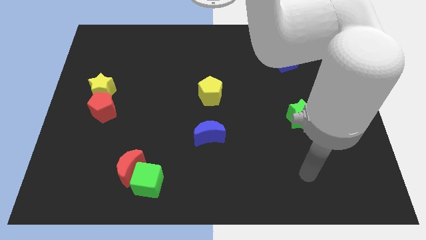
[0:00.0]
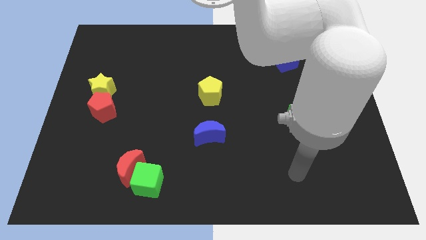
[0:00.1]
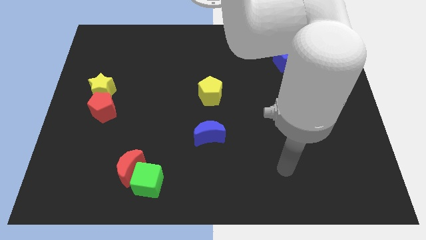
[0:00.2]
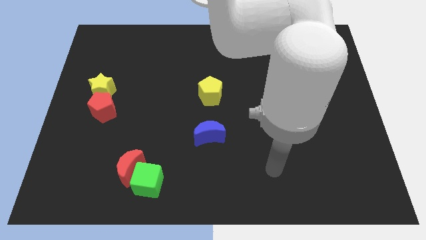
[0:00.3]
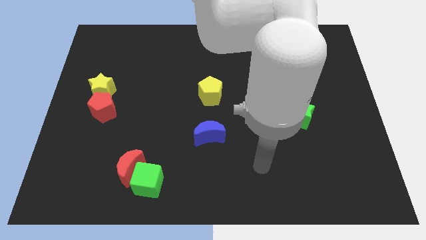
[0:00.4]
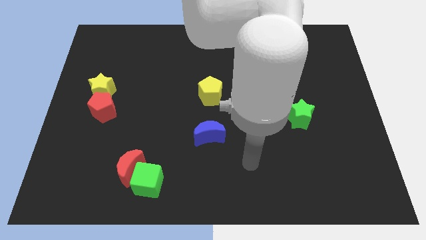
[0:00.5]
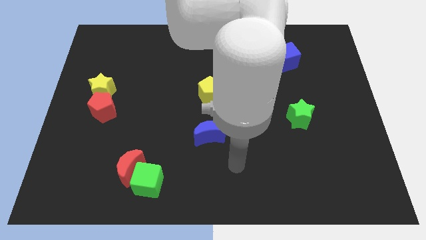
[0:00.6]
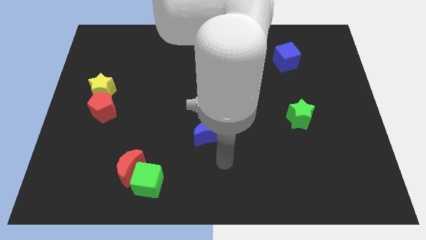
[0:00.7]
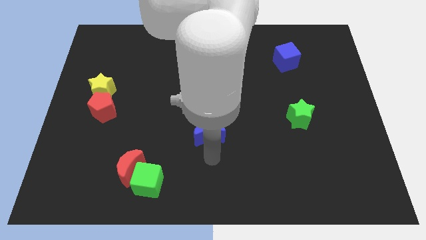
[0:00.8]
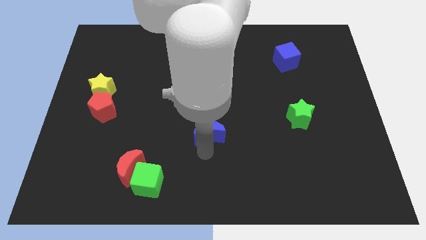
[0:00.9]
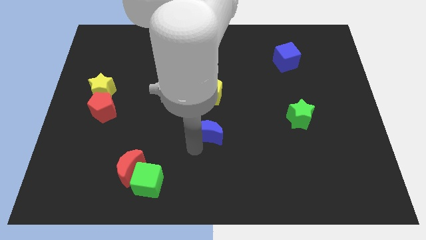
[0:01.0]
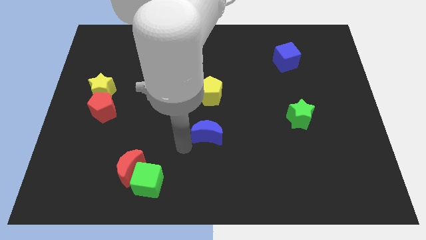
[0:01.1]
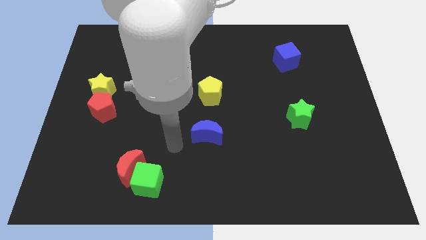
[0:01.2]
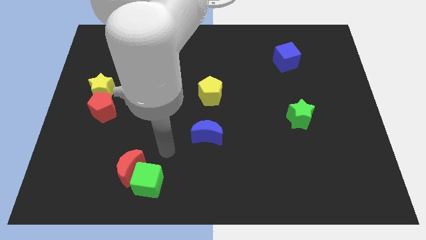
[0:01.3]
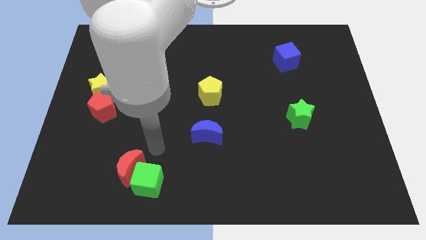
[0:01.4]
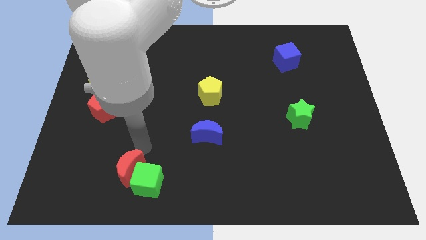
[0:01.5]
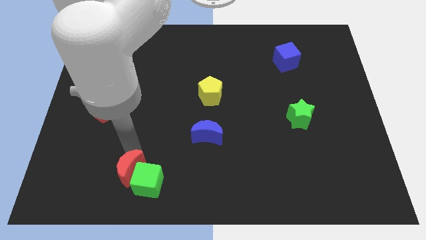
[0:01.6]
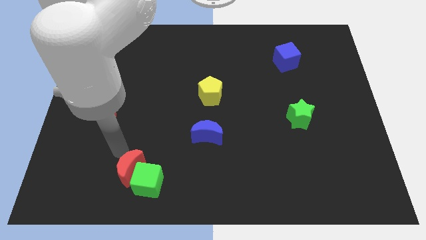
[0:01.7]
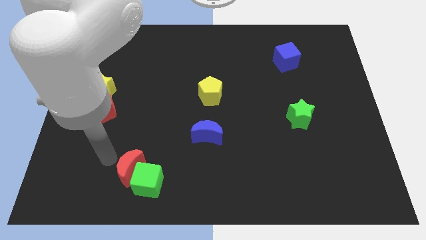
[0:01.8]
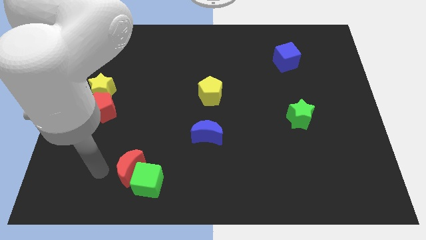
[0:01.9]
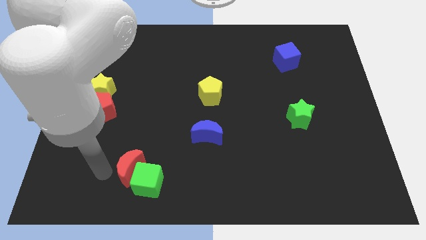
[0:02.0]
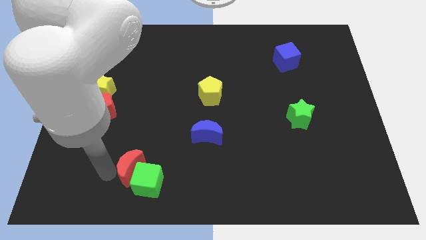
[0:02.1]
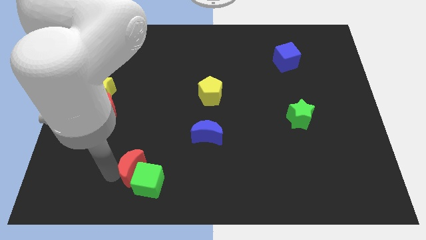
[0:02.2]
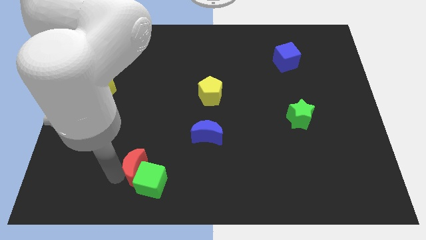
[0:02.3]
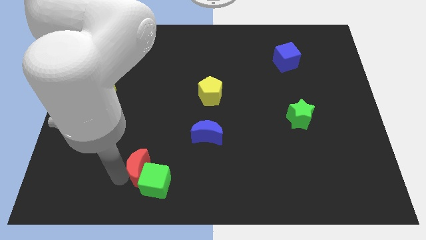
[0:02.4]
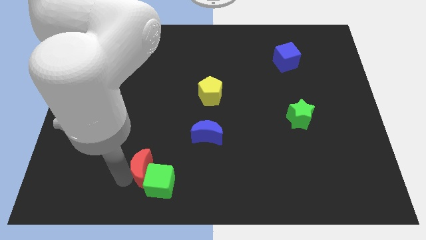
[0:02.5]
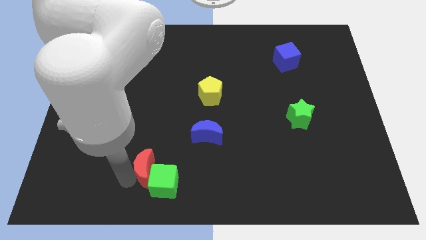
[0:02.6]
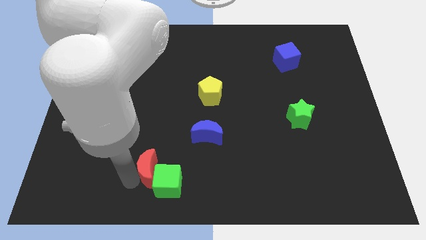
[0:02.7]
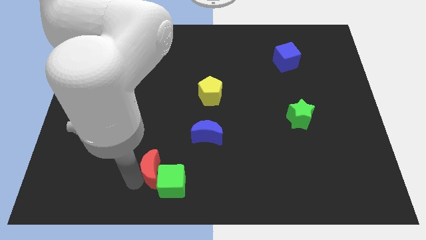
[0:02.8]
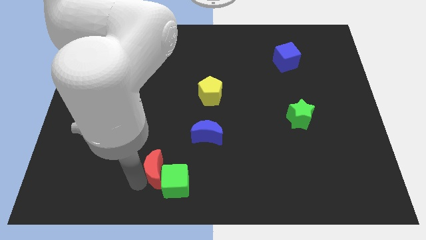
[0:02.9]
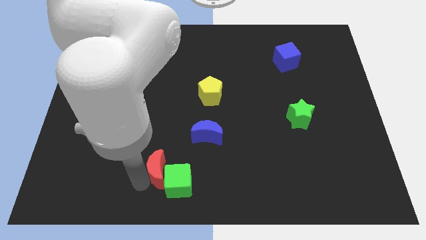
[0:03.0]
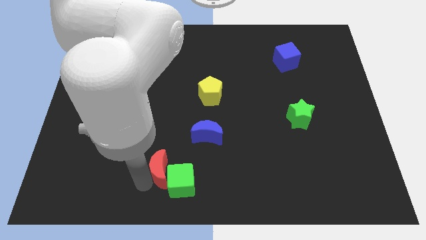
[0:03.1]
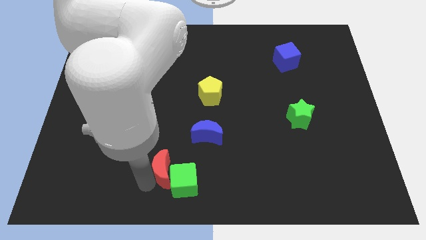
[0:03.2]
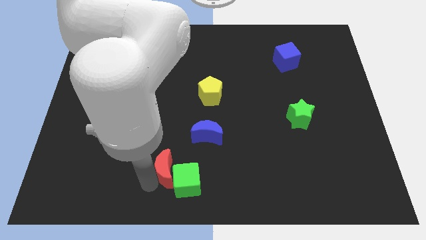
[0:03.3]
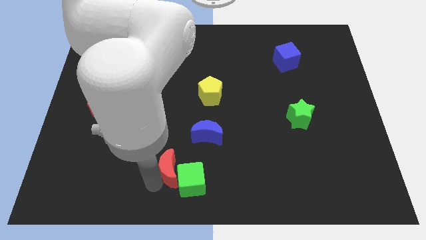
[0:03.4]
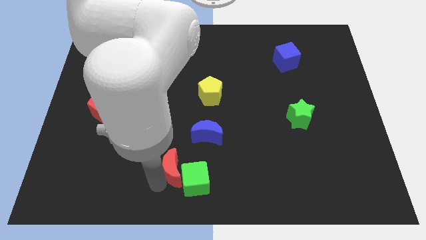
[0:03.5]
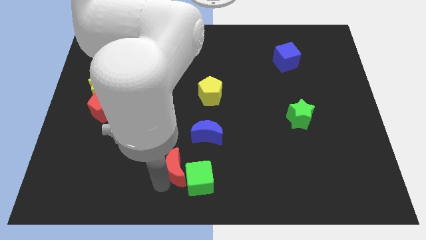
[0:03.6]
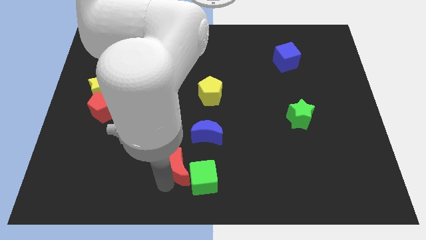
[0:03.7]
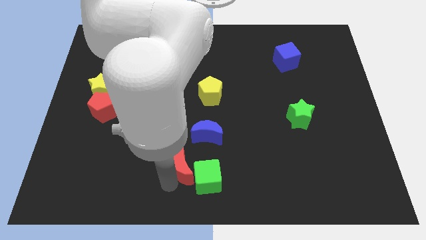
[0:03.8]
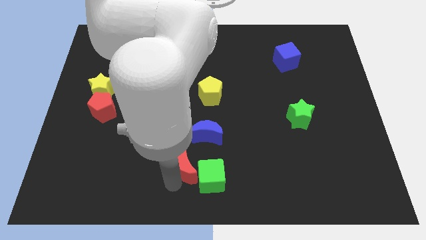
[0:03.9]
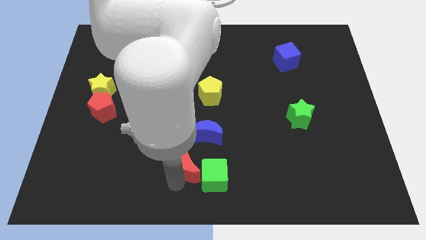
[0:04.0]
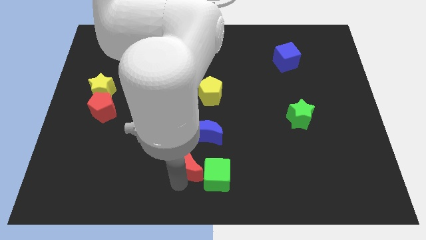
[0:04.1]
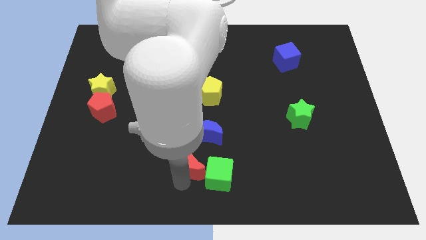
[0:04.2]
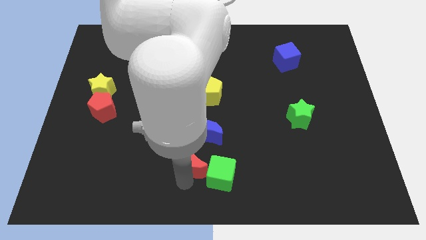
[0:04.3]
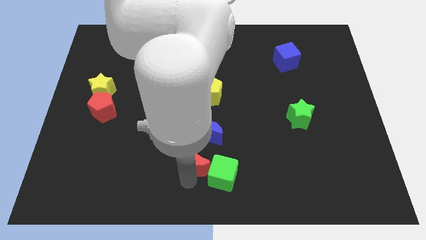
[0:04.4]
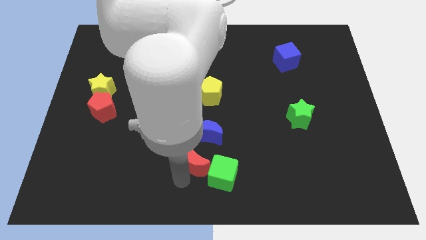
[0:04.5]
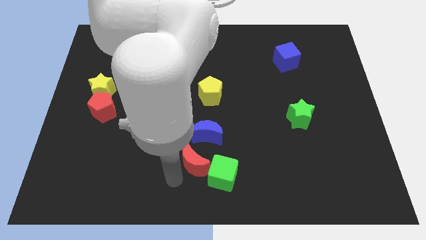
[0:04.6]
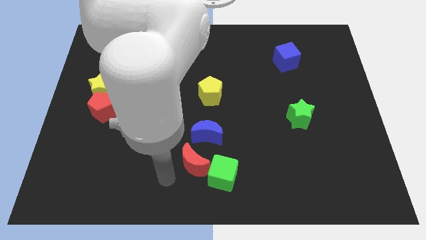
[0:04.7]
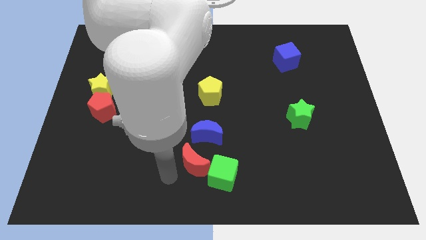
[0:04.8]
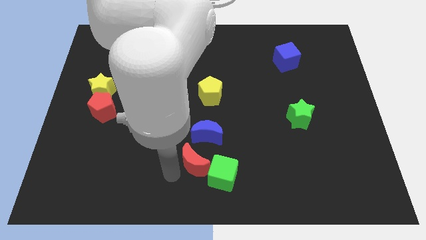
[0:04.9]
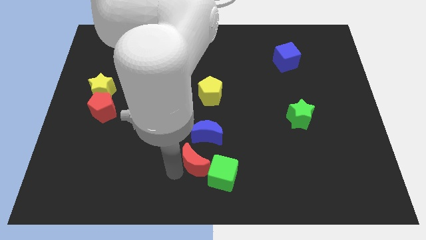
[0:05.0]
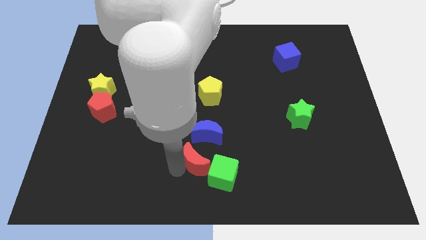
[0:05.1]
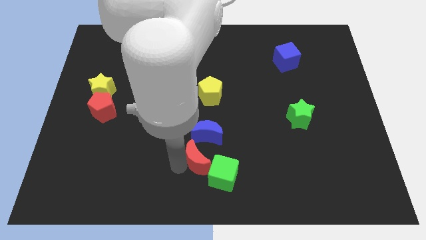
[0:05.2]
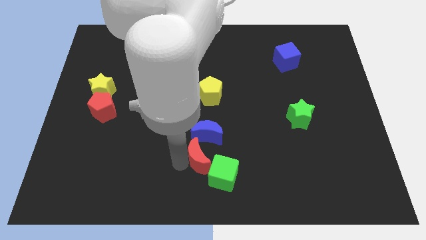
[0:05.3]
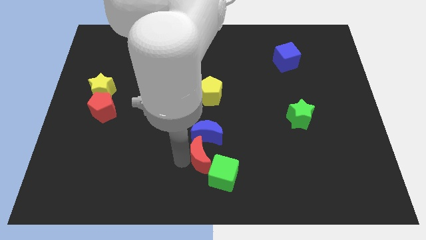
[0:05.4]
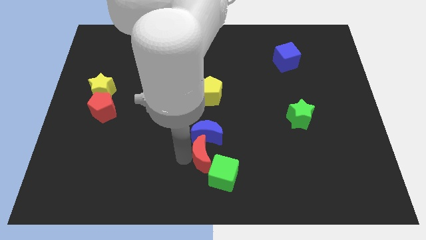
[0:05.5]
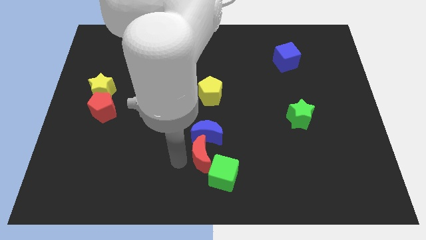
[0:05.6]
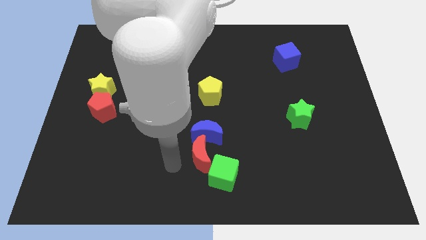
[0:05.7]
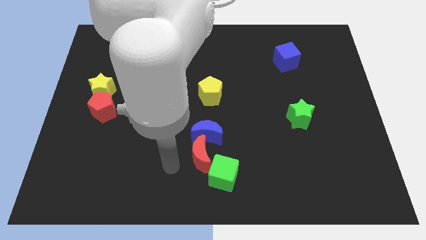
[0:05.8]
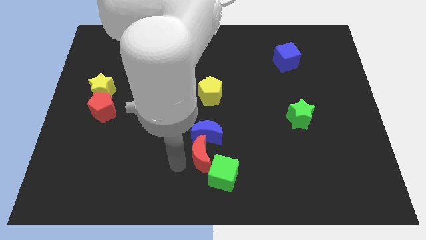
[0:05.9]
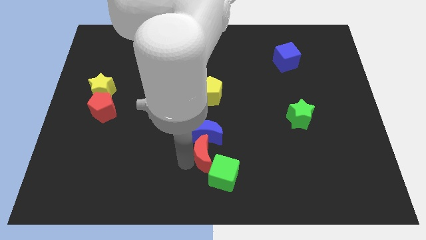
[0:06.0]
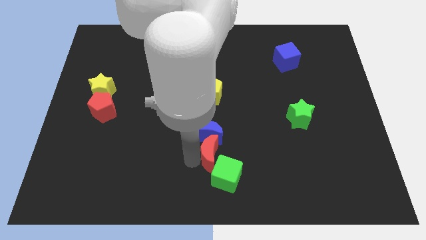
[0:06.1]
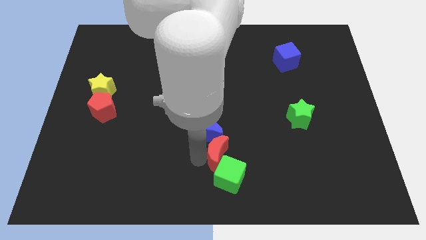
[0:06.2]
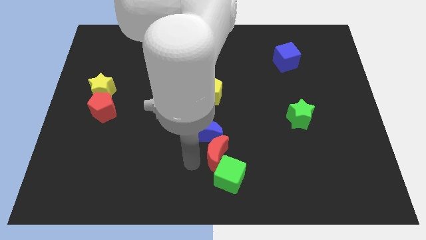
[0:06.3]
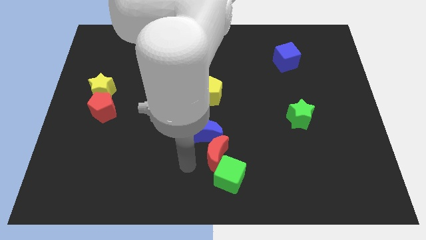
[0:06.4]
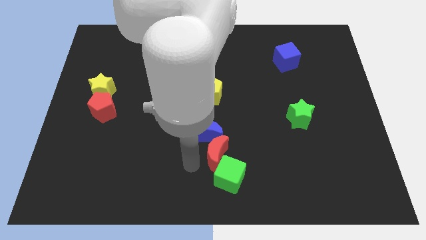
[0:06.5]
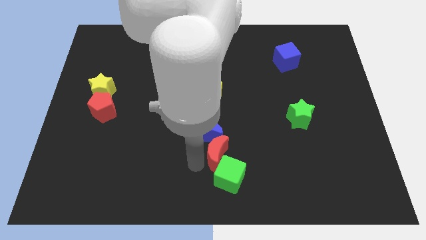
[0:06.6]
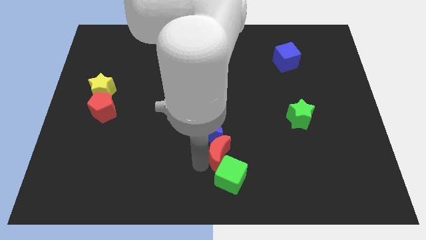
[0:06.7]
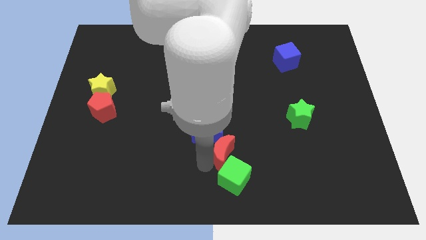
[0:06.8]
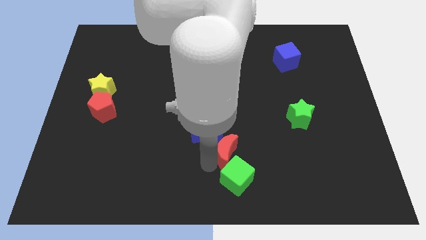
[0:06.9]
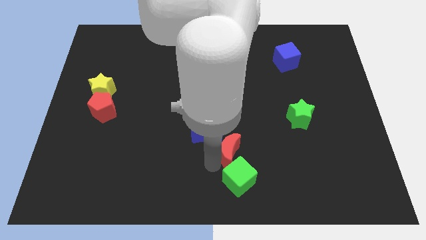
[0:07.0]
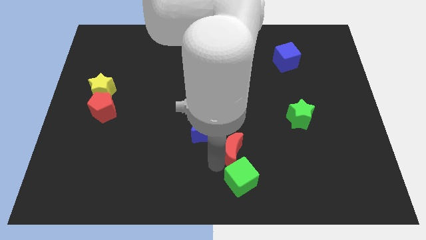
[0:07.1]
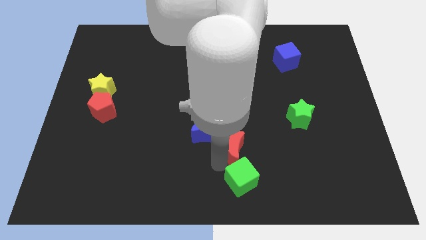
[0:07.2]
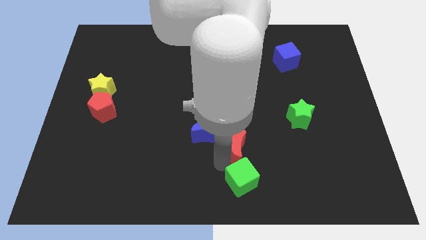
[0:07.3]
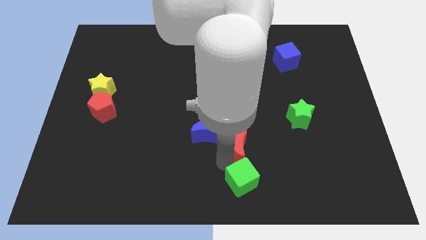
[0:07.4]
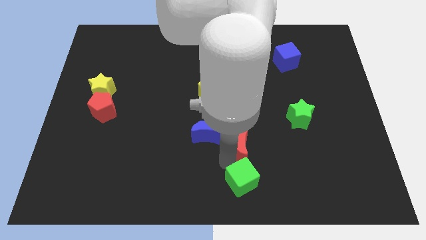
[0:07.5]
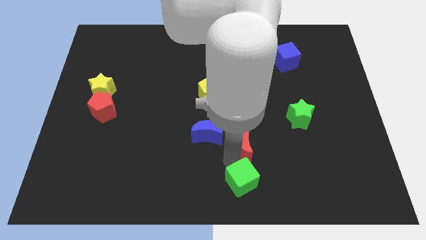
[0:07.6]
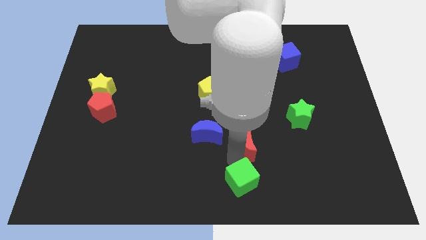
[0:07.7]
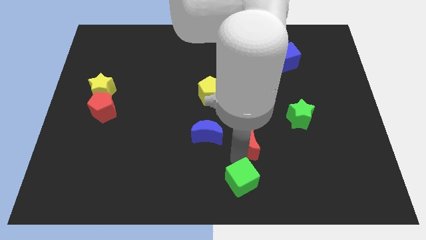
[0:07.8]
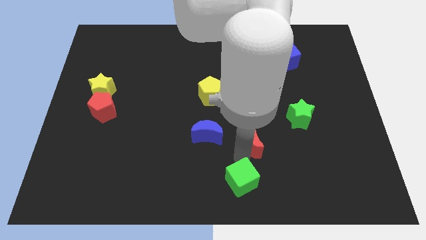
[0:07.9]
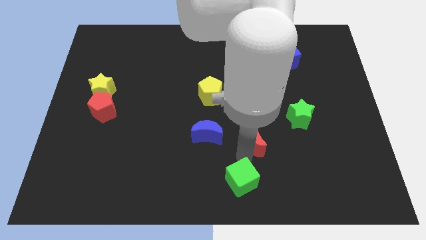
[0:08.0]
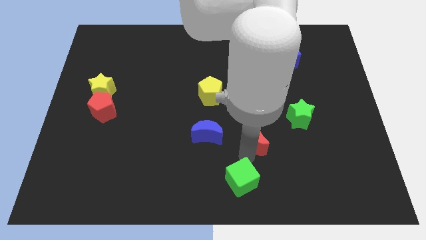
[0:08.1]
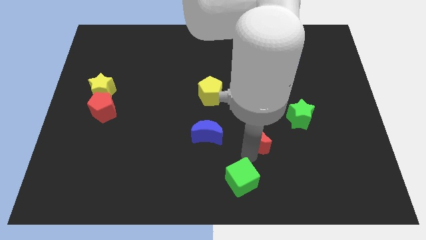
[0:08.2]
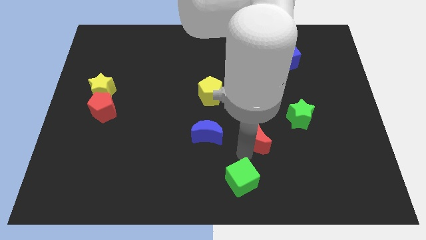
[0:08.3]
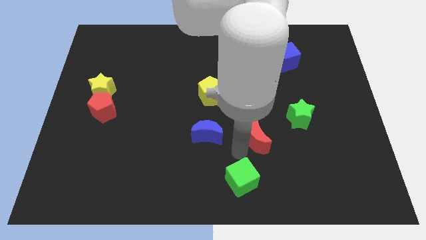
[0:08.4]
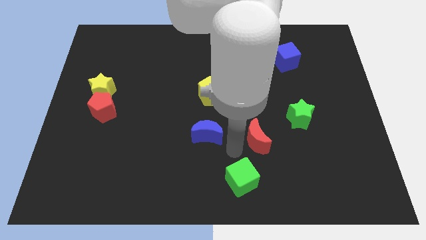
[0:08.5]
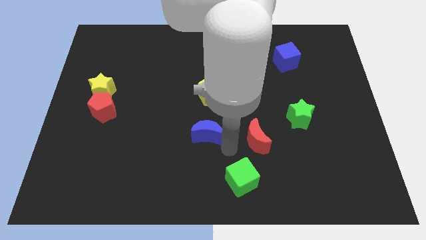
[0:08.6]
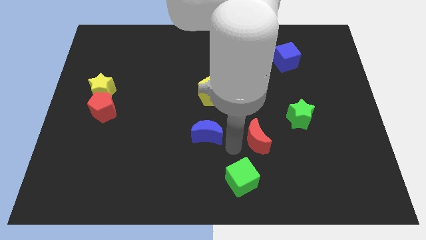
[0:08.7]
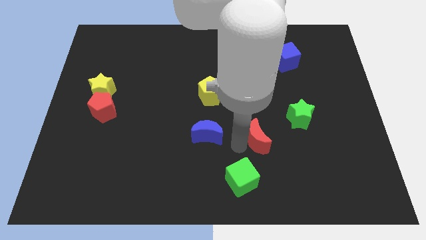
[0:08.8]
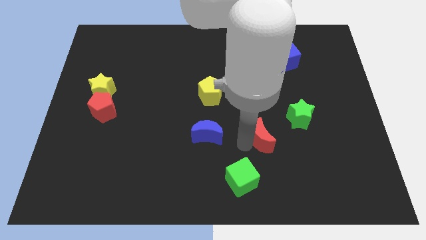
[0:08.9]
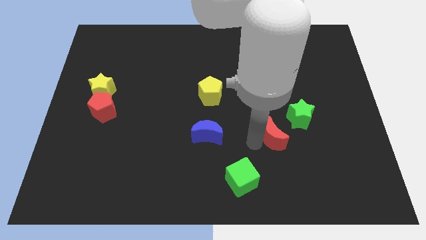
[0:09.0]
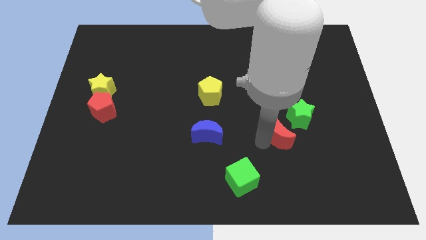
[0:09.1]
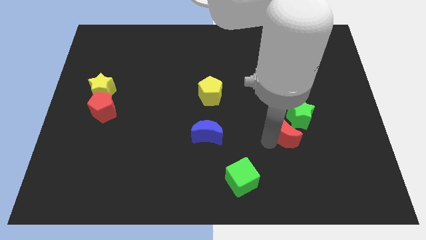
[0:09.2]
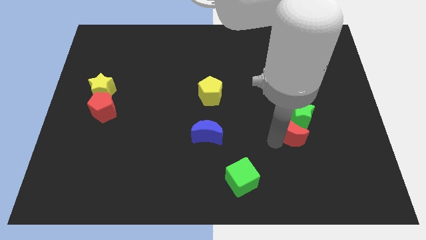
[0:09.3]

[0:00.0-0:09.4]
slide the red moon next to the green star
